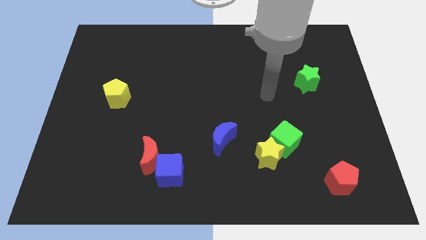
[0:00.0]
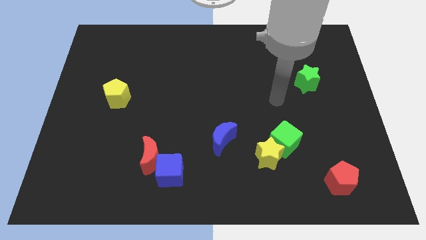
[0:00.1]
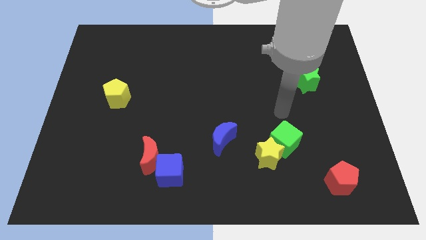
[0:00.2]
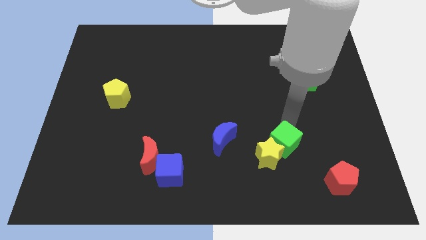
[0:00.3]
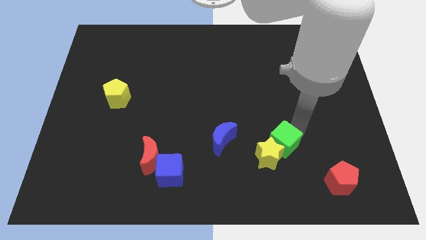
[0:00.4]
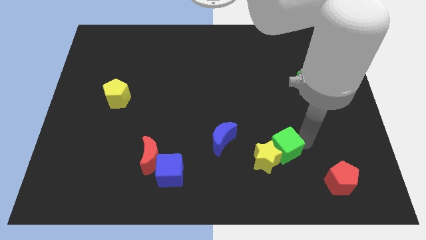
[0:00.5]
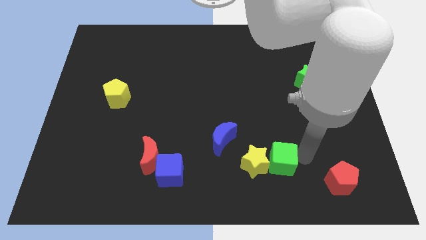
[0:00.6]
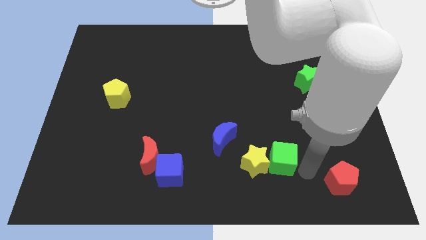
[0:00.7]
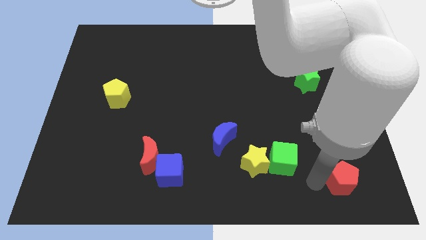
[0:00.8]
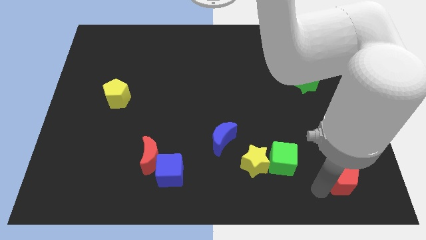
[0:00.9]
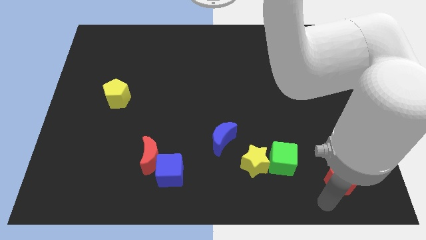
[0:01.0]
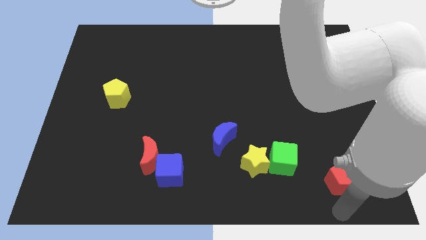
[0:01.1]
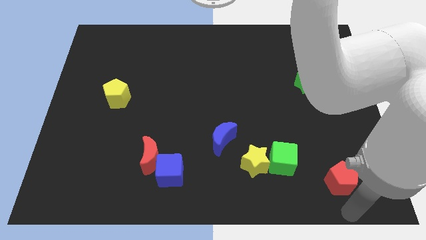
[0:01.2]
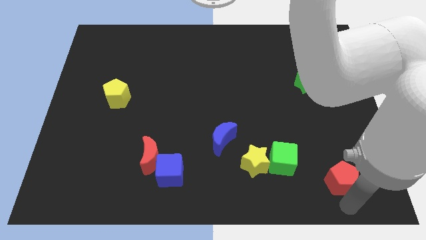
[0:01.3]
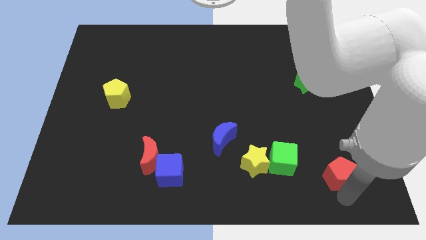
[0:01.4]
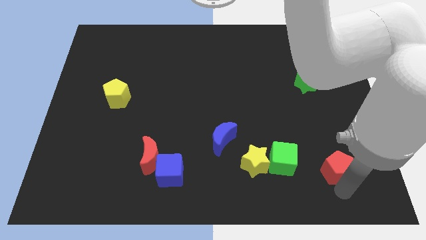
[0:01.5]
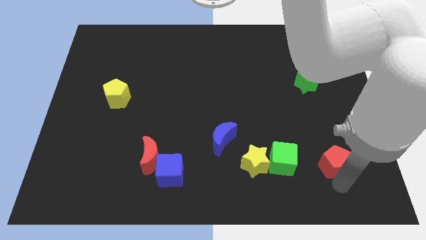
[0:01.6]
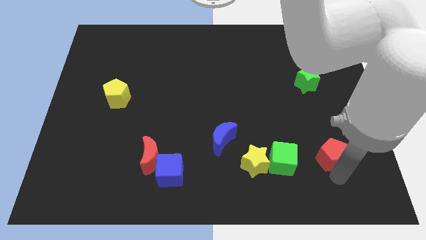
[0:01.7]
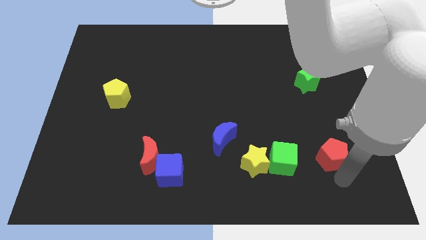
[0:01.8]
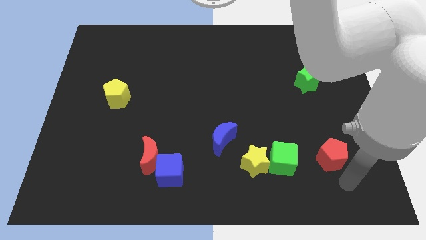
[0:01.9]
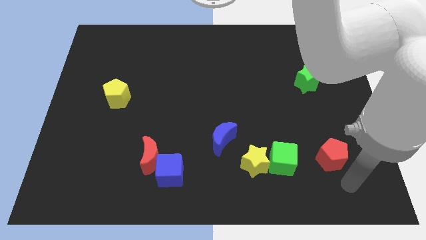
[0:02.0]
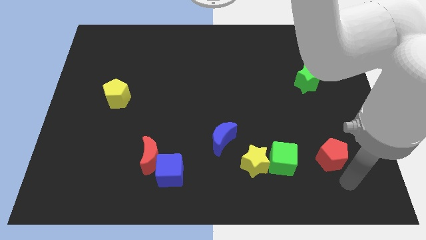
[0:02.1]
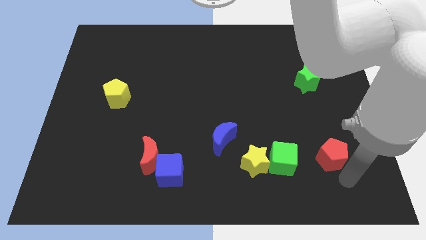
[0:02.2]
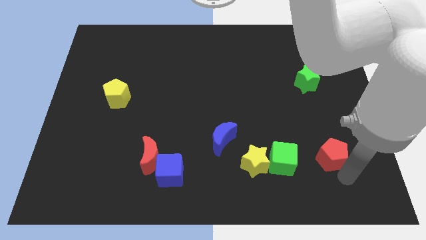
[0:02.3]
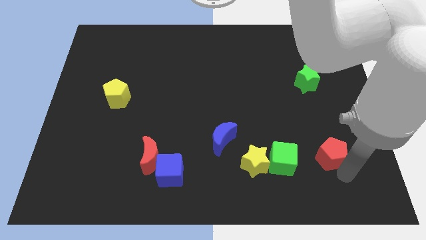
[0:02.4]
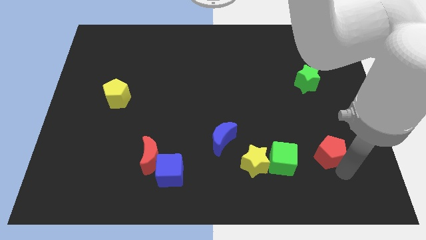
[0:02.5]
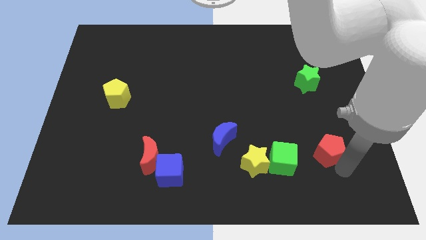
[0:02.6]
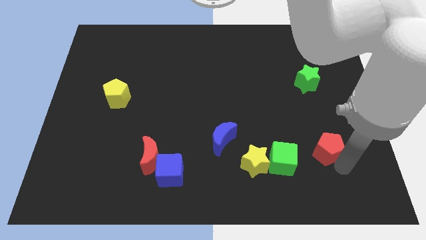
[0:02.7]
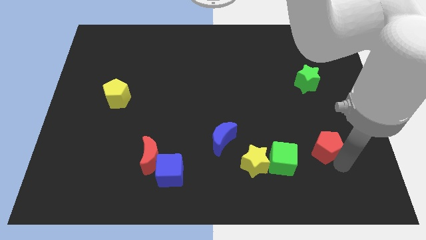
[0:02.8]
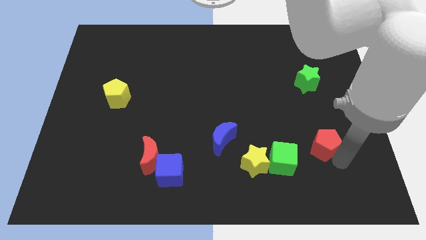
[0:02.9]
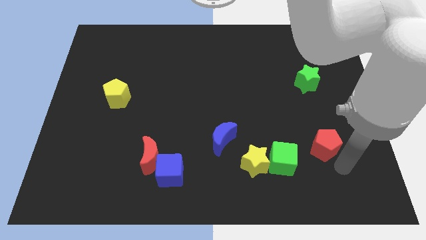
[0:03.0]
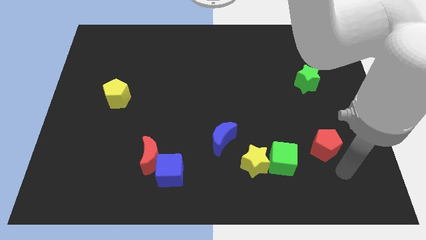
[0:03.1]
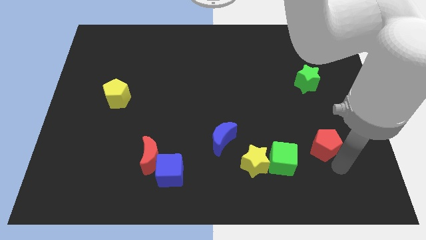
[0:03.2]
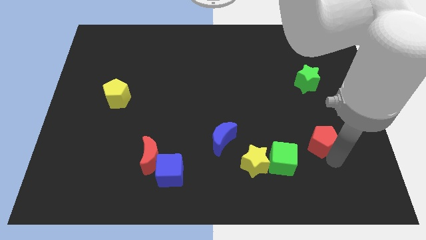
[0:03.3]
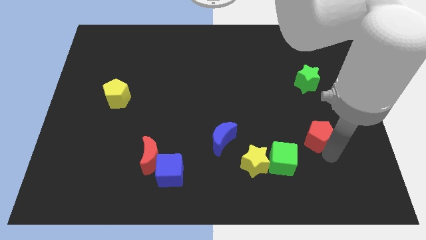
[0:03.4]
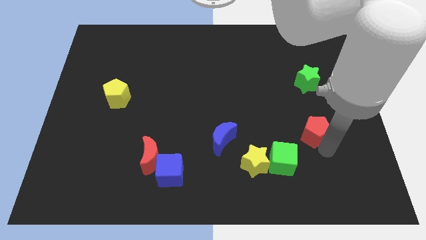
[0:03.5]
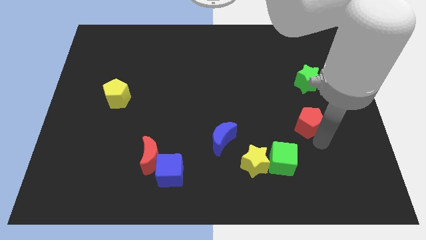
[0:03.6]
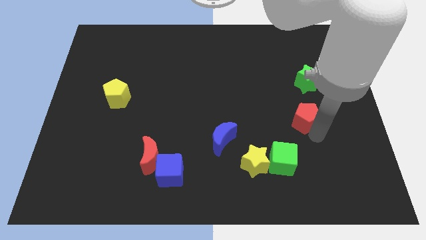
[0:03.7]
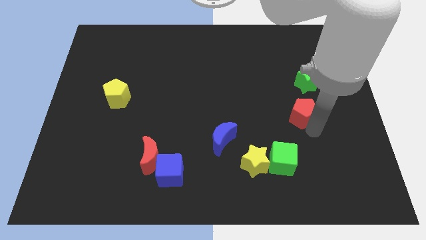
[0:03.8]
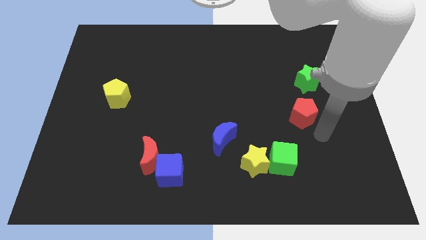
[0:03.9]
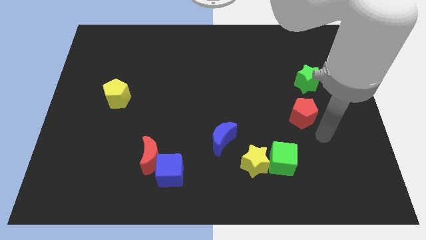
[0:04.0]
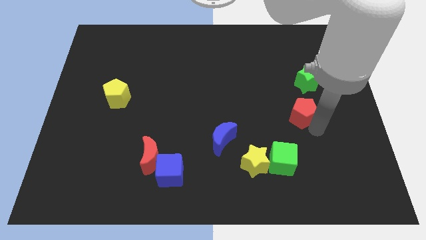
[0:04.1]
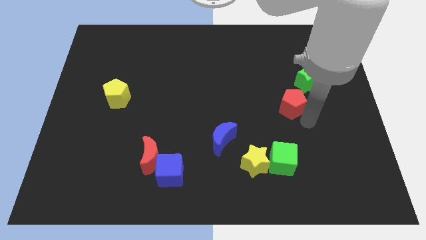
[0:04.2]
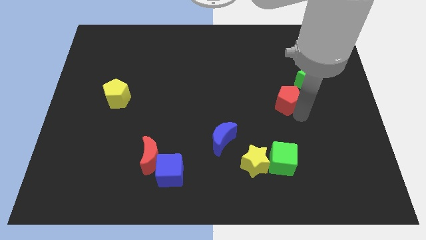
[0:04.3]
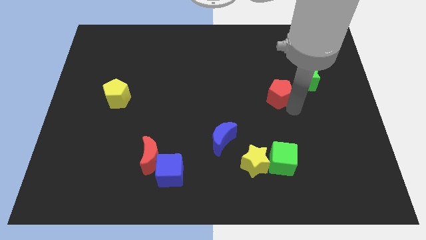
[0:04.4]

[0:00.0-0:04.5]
push the red pentagon to the left of the green star

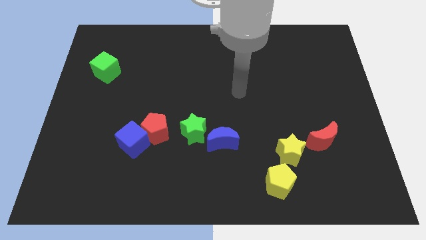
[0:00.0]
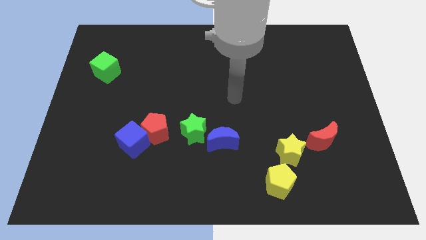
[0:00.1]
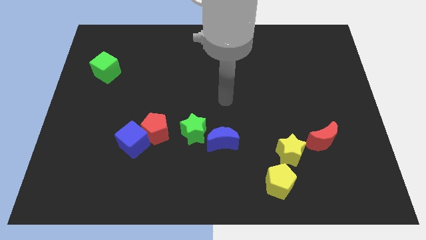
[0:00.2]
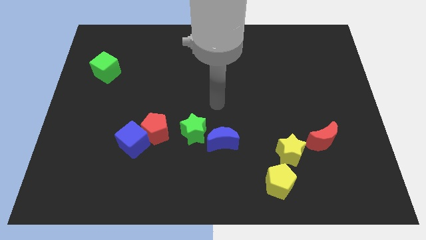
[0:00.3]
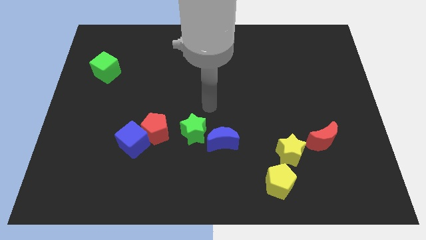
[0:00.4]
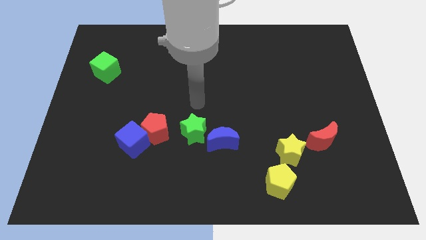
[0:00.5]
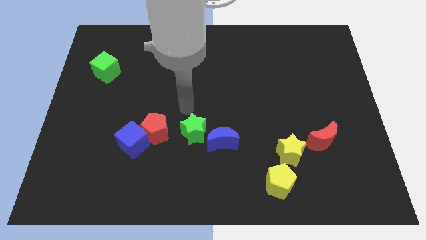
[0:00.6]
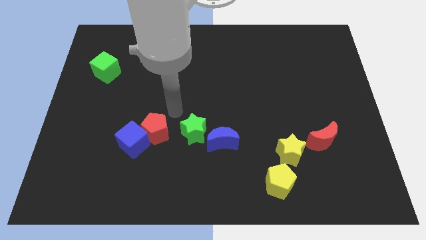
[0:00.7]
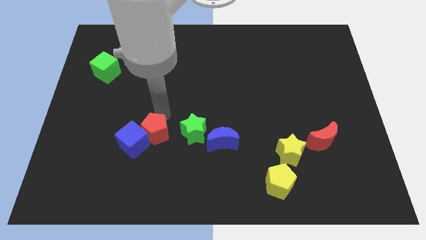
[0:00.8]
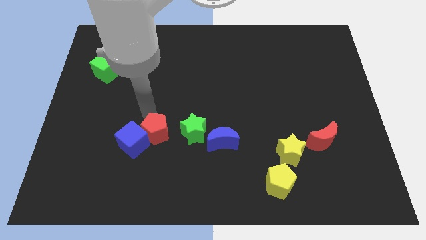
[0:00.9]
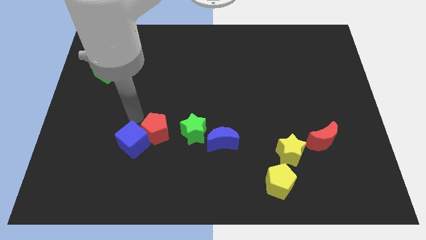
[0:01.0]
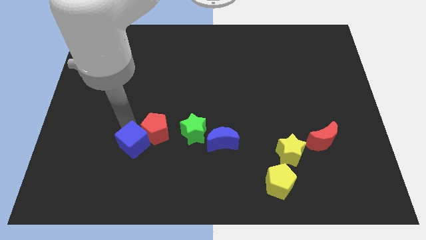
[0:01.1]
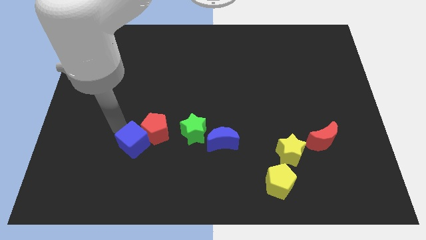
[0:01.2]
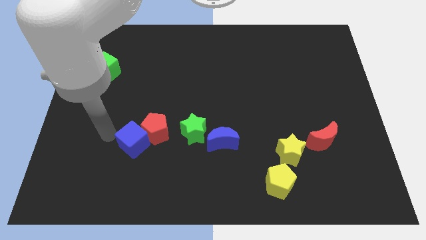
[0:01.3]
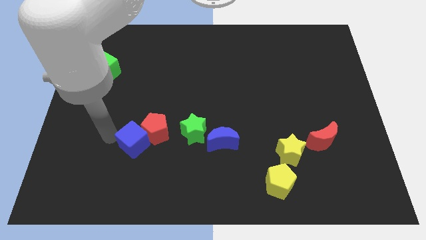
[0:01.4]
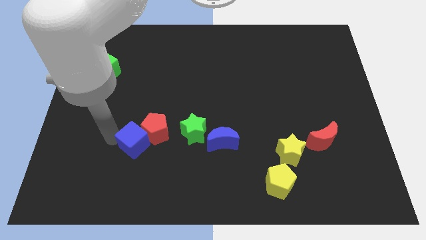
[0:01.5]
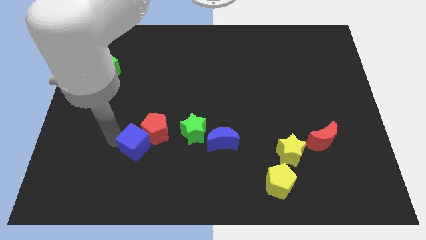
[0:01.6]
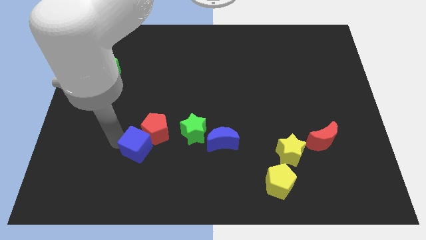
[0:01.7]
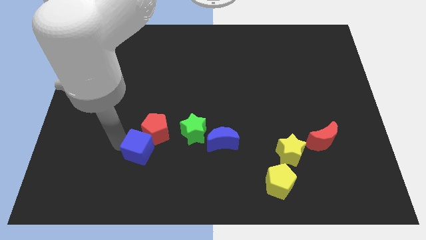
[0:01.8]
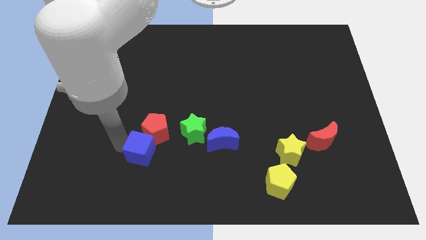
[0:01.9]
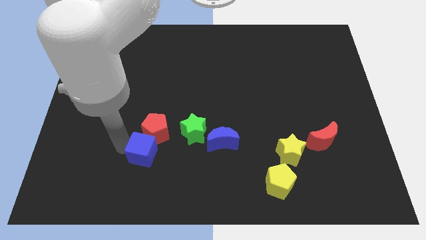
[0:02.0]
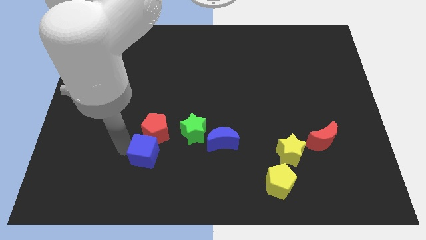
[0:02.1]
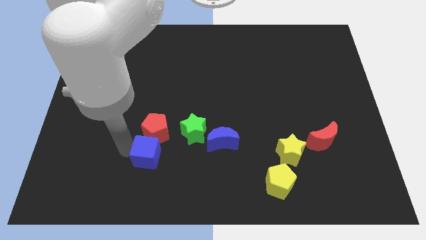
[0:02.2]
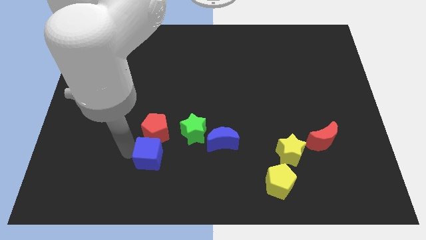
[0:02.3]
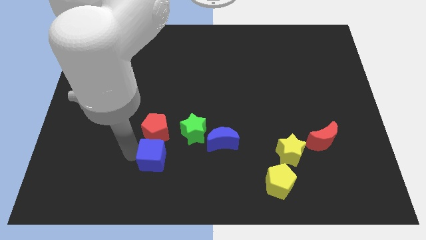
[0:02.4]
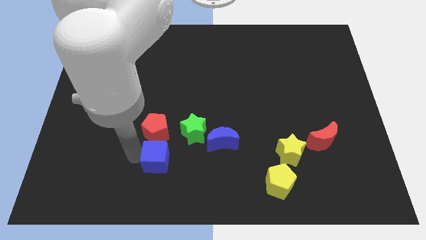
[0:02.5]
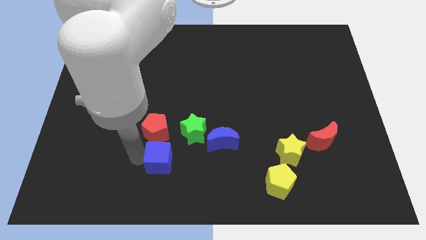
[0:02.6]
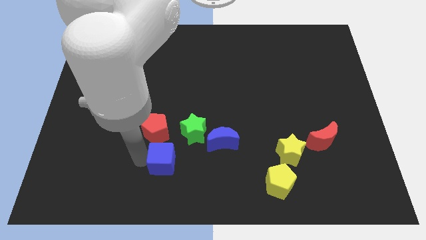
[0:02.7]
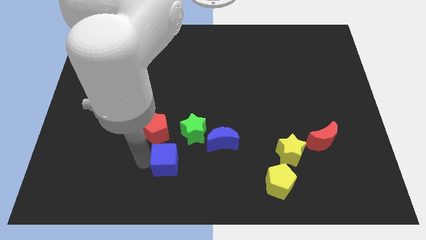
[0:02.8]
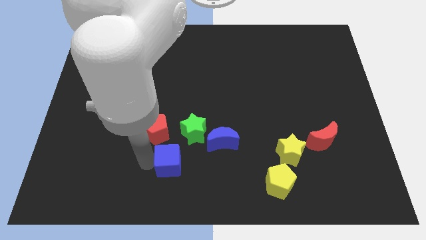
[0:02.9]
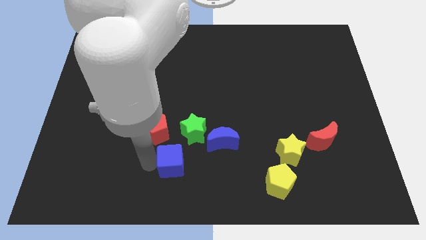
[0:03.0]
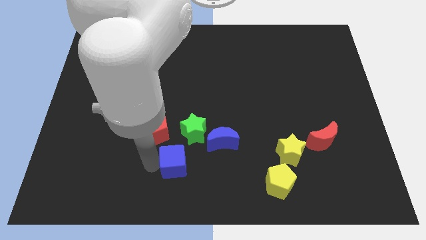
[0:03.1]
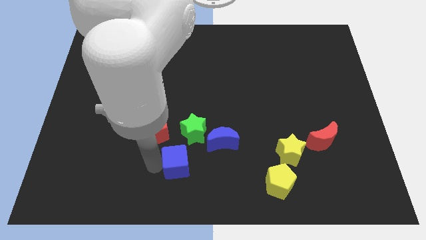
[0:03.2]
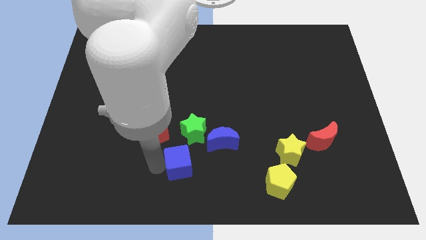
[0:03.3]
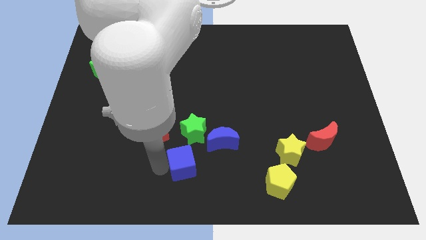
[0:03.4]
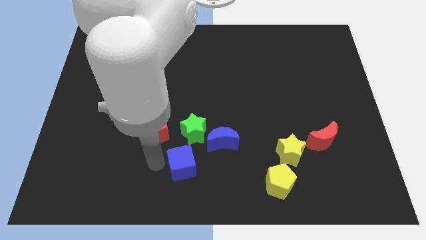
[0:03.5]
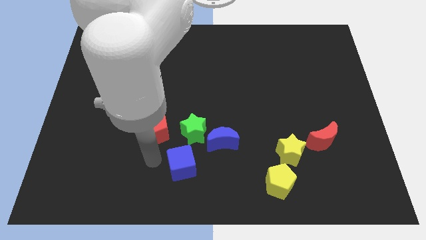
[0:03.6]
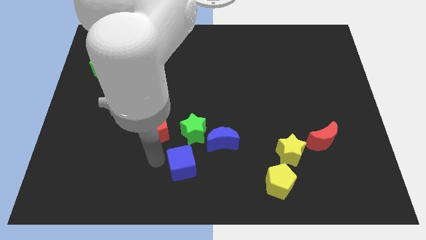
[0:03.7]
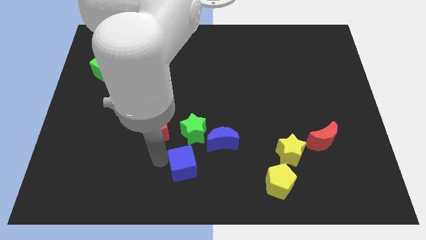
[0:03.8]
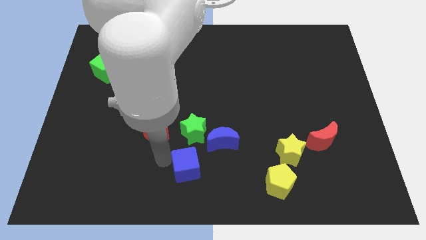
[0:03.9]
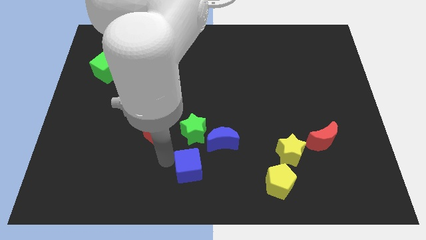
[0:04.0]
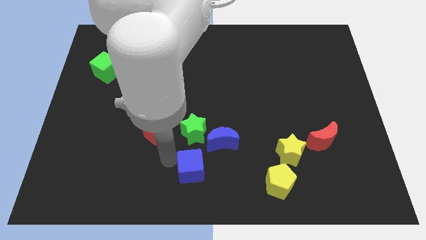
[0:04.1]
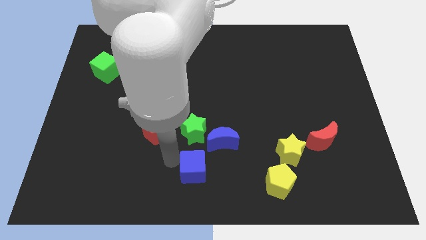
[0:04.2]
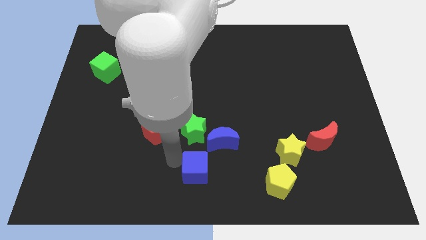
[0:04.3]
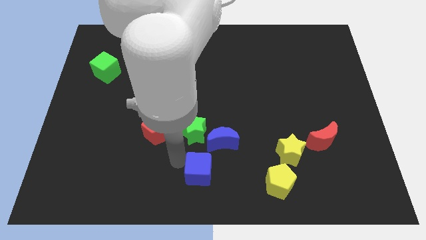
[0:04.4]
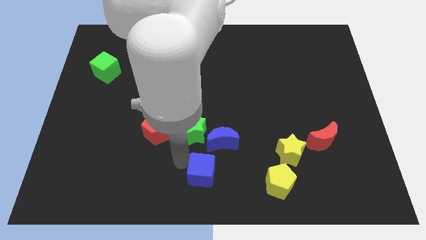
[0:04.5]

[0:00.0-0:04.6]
move the blue cube to the left of the yellow pentagon
